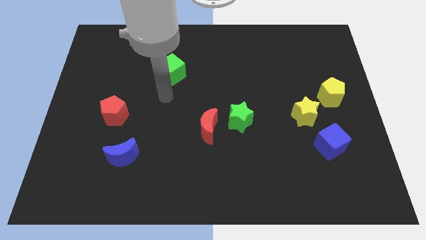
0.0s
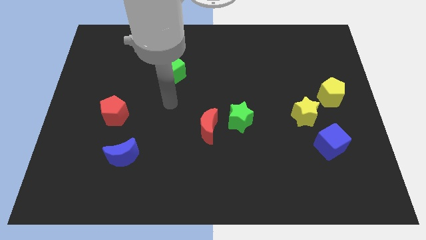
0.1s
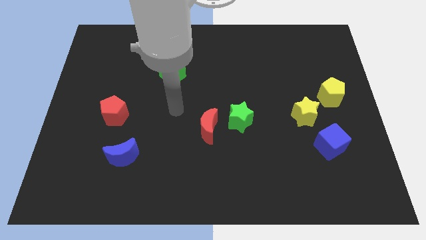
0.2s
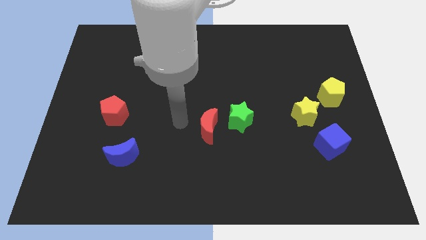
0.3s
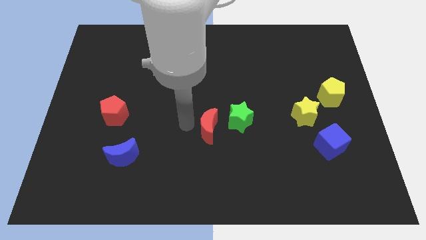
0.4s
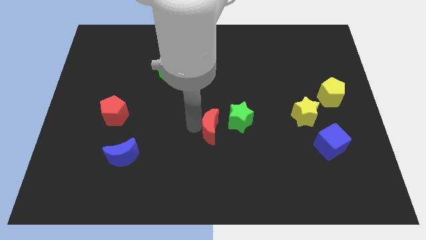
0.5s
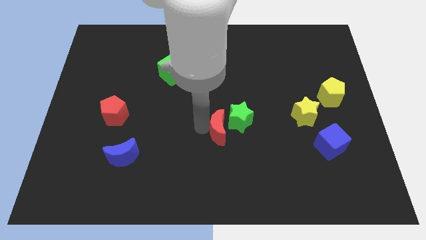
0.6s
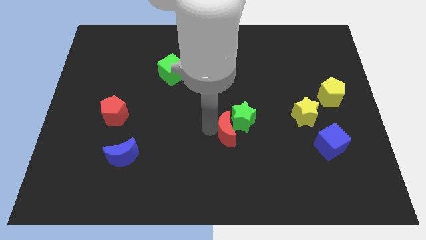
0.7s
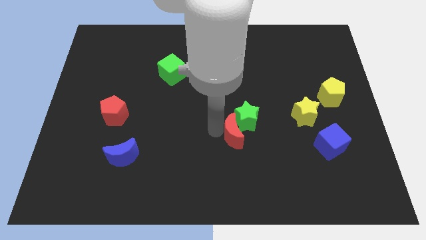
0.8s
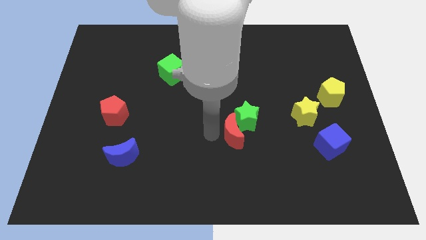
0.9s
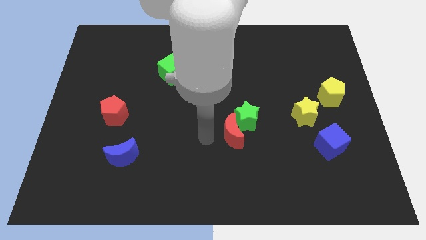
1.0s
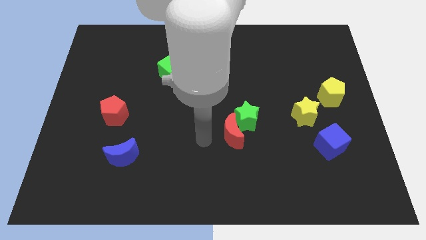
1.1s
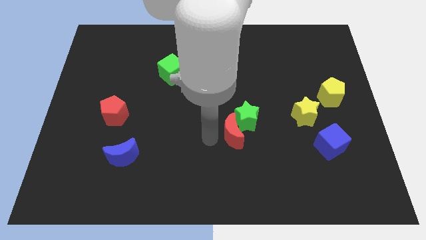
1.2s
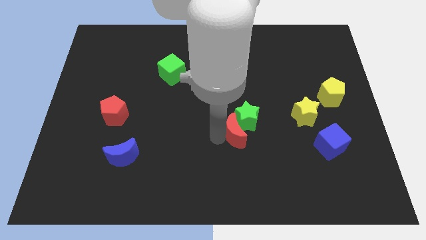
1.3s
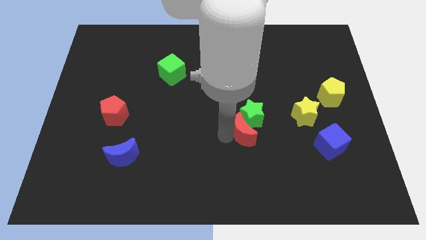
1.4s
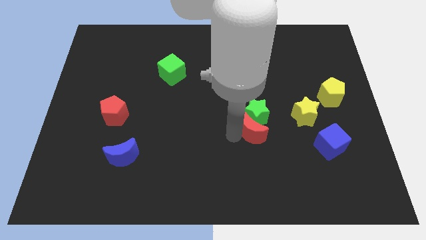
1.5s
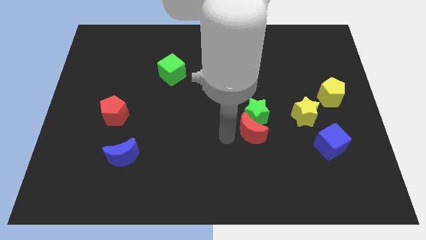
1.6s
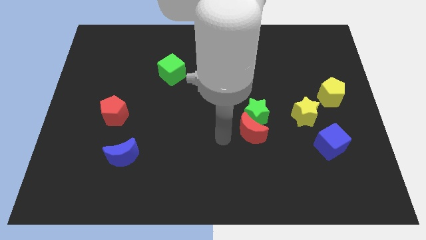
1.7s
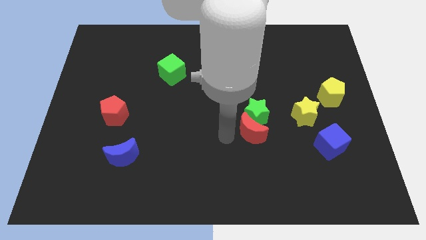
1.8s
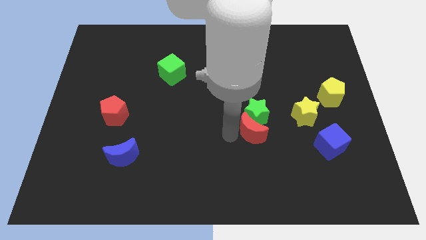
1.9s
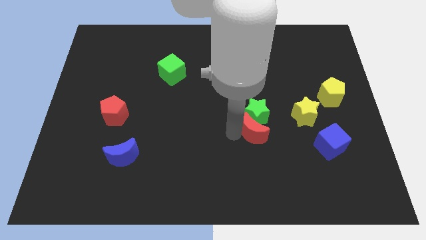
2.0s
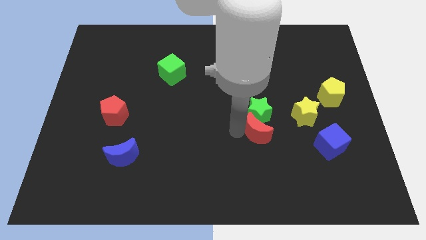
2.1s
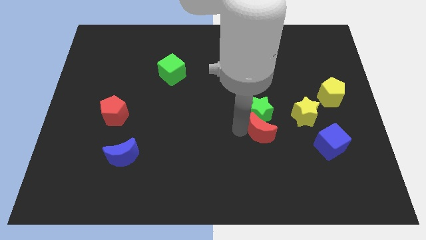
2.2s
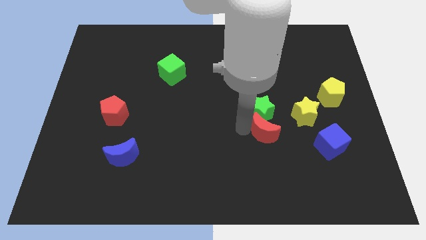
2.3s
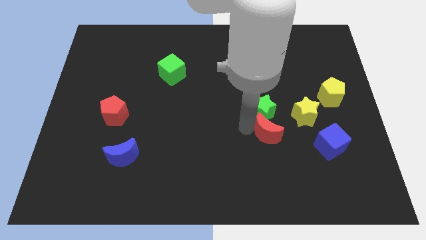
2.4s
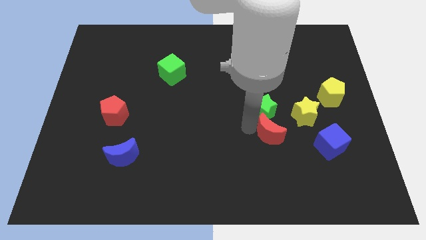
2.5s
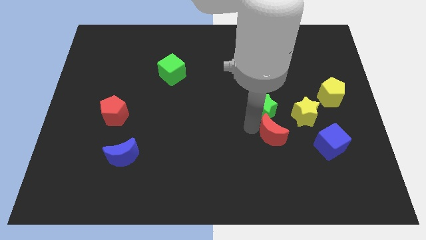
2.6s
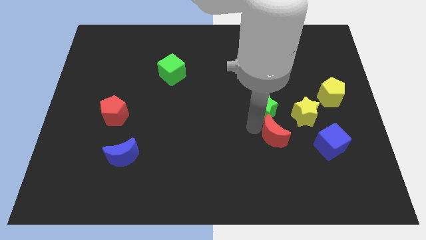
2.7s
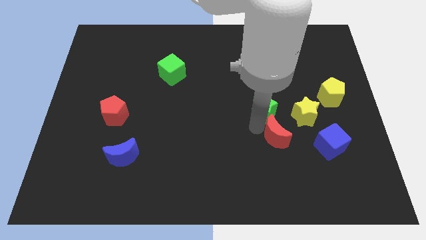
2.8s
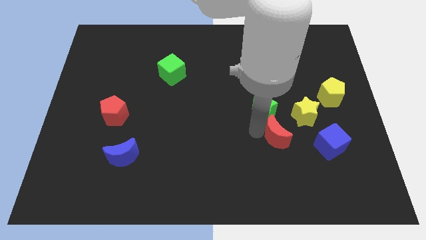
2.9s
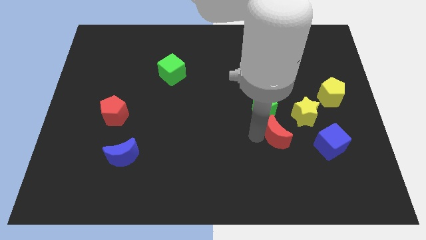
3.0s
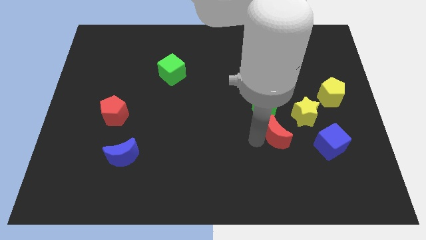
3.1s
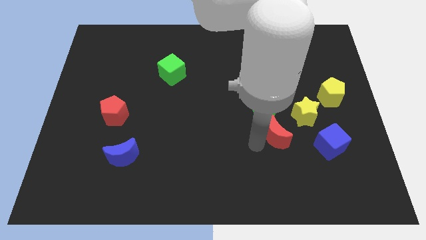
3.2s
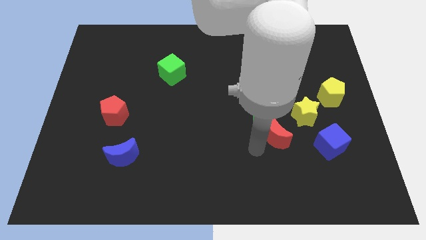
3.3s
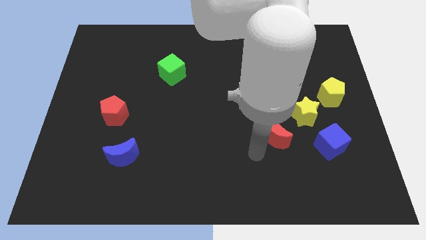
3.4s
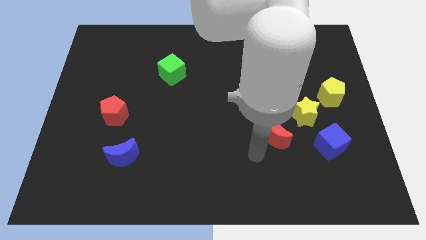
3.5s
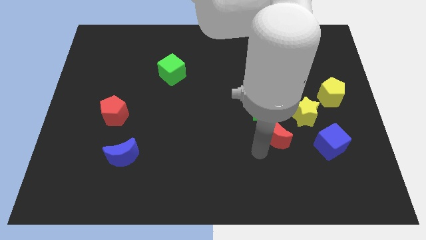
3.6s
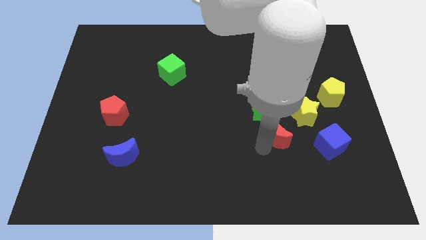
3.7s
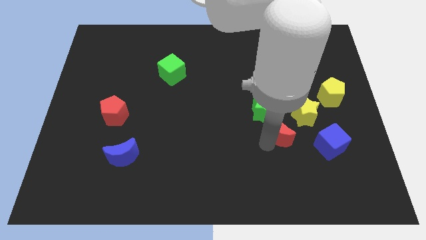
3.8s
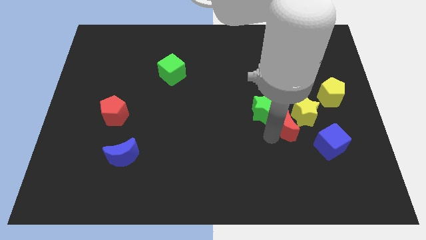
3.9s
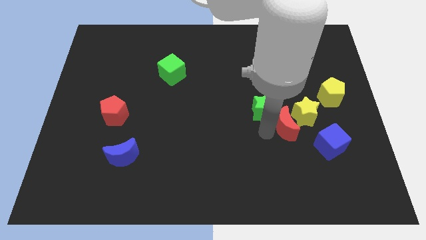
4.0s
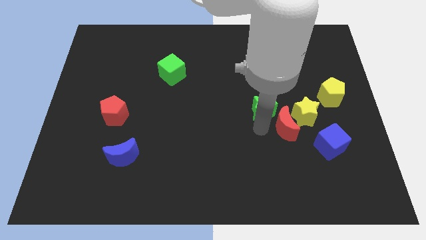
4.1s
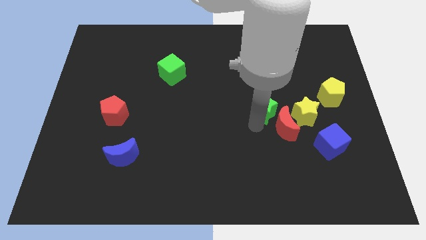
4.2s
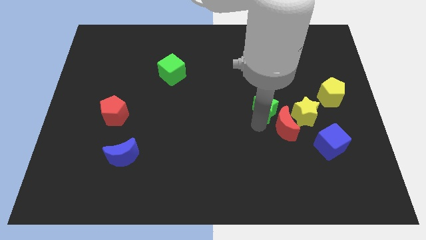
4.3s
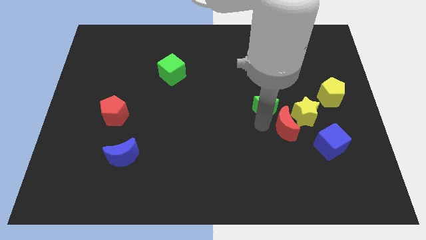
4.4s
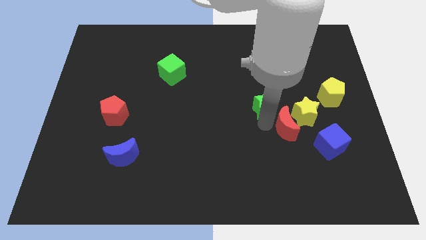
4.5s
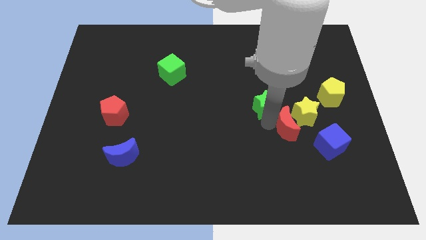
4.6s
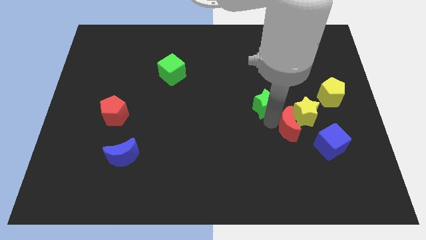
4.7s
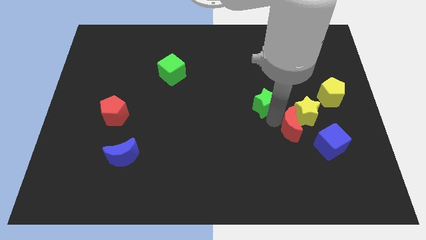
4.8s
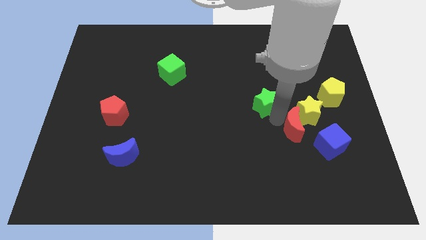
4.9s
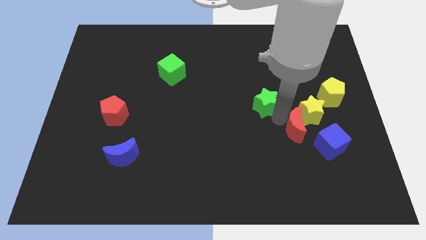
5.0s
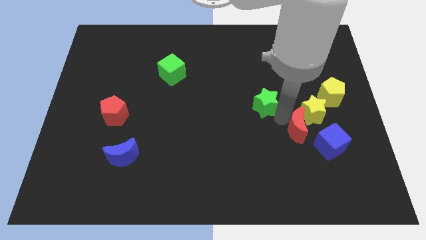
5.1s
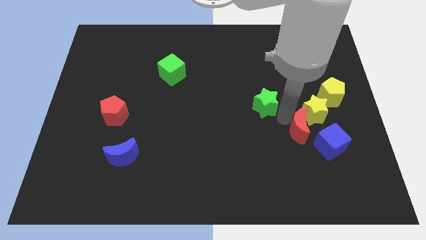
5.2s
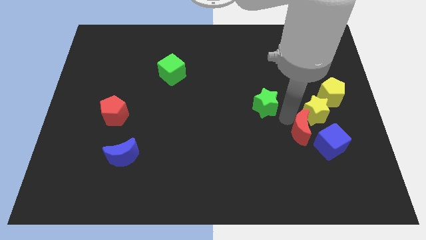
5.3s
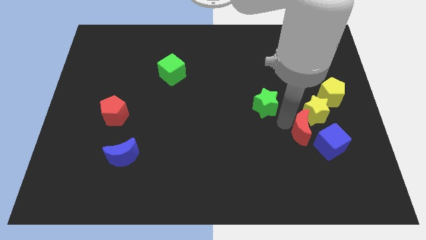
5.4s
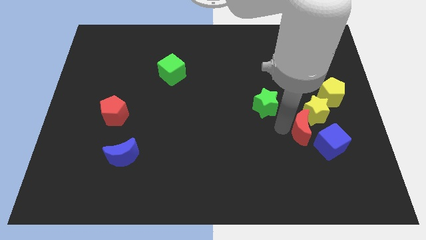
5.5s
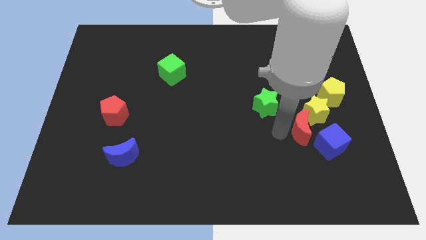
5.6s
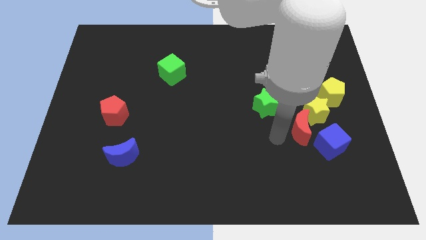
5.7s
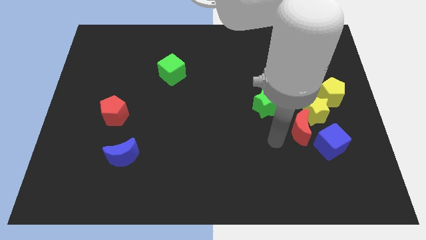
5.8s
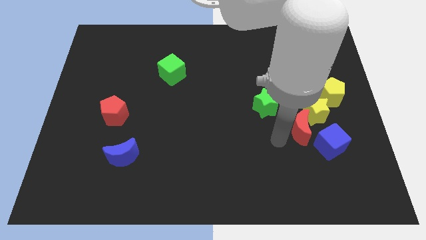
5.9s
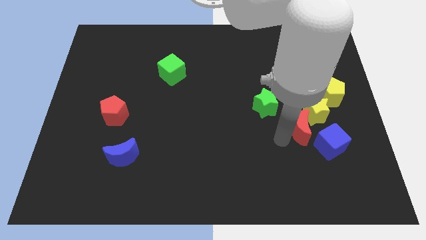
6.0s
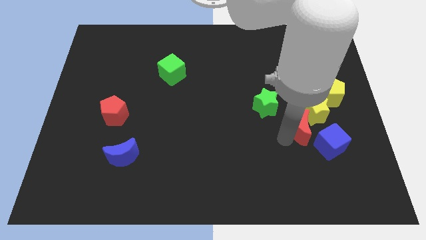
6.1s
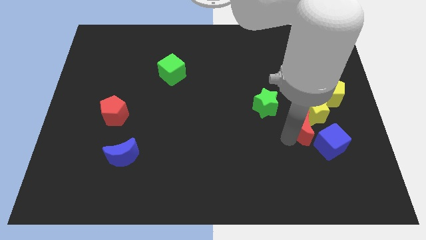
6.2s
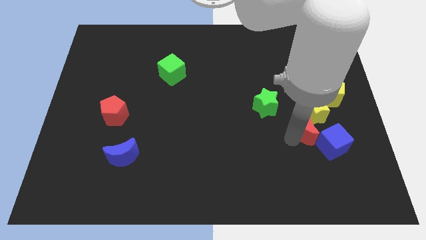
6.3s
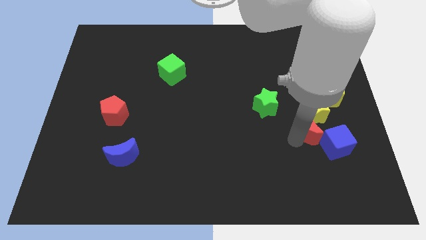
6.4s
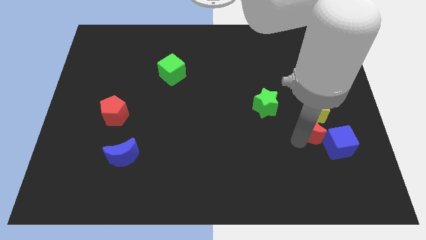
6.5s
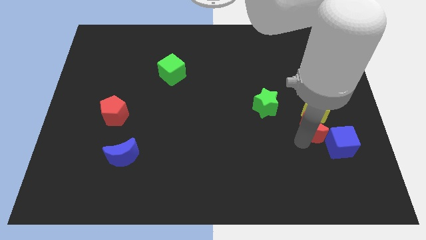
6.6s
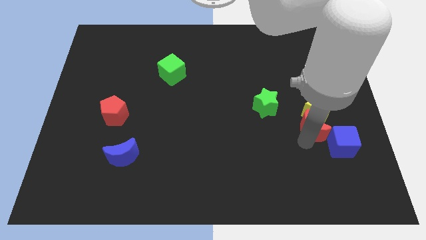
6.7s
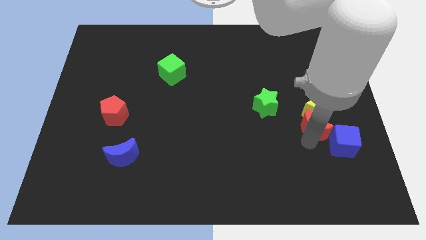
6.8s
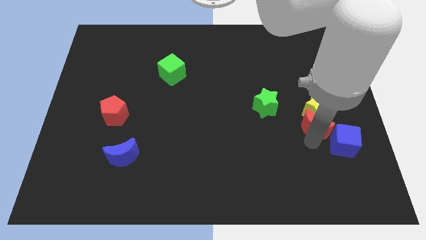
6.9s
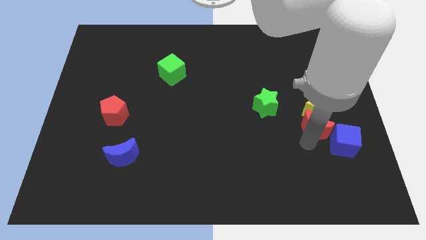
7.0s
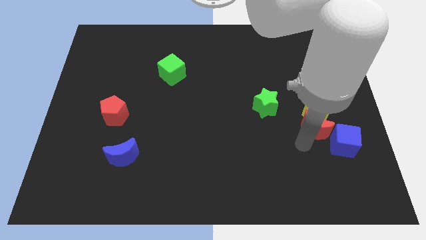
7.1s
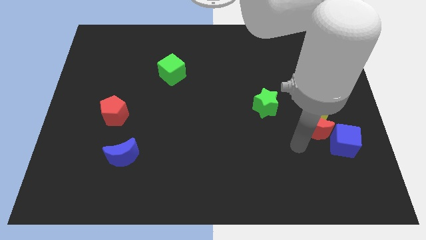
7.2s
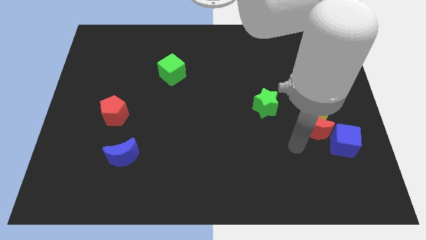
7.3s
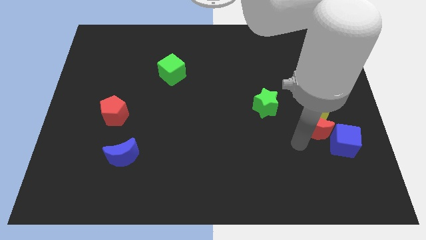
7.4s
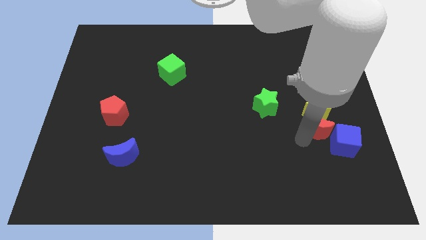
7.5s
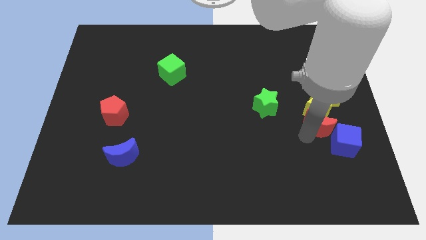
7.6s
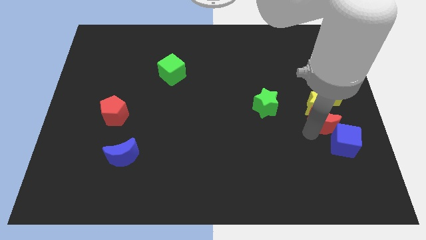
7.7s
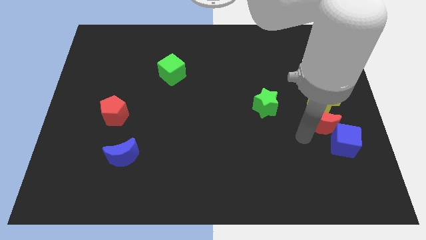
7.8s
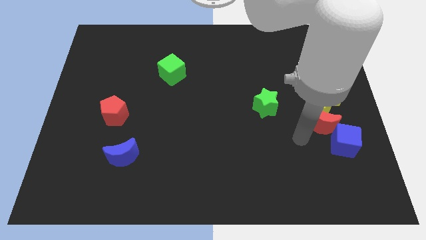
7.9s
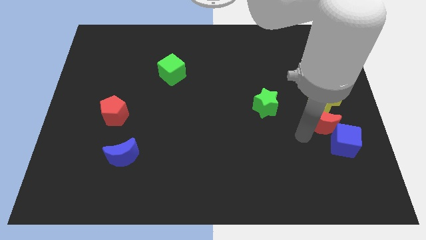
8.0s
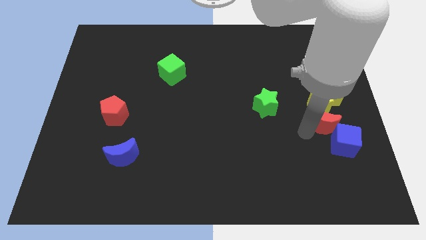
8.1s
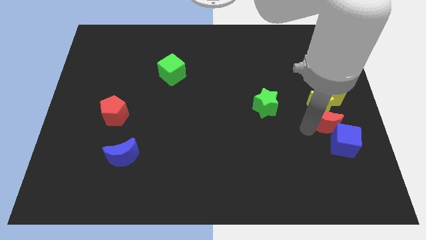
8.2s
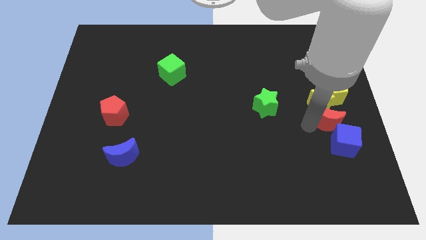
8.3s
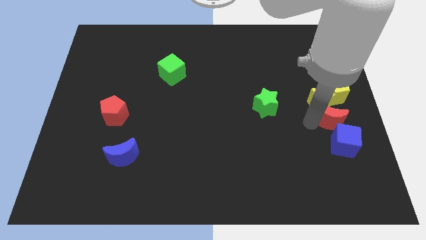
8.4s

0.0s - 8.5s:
push the red moon to the right side of the board
